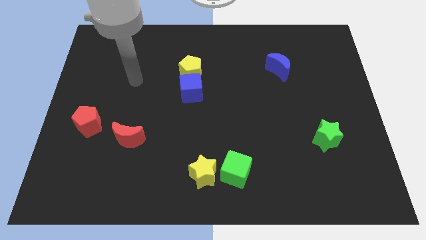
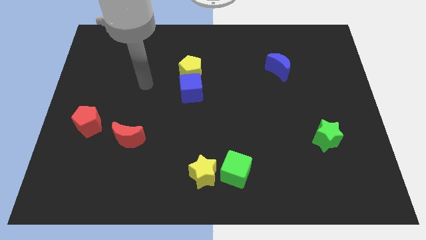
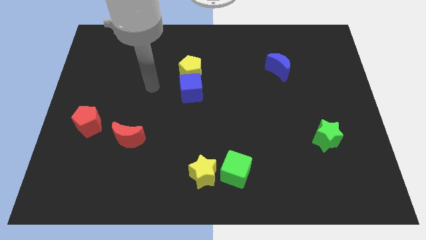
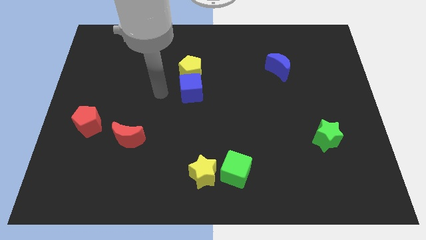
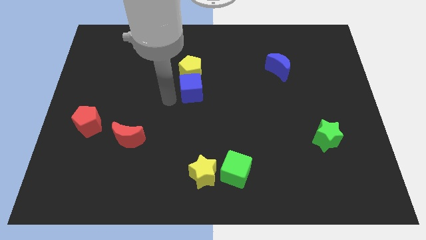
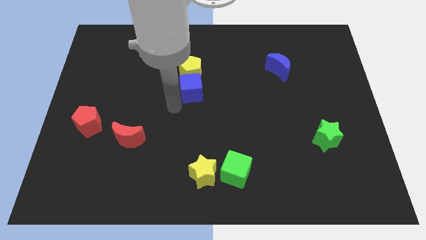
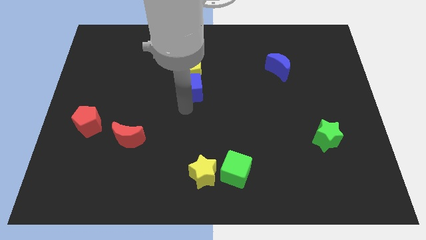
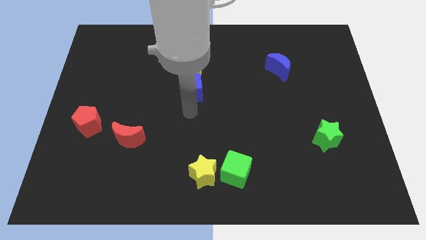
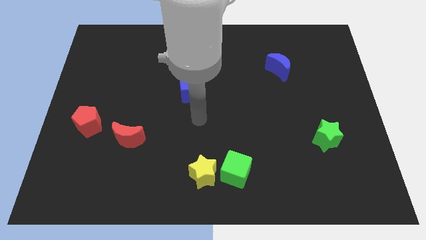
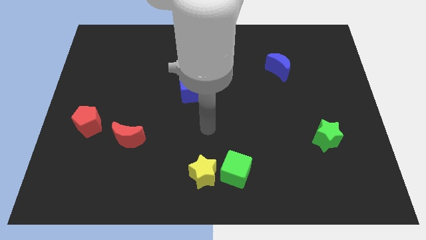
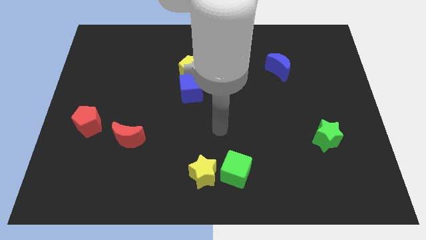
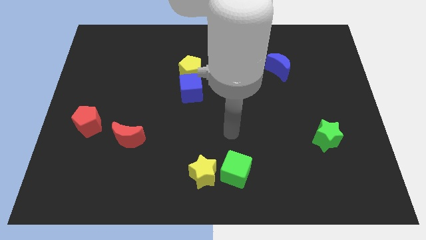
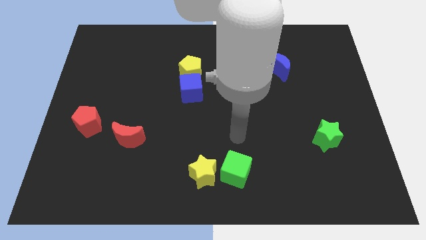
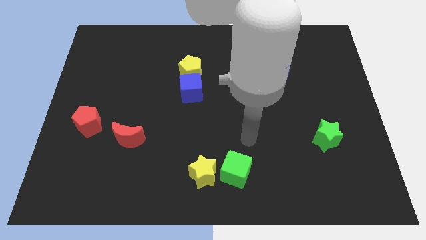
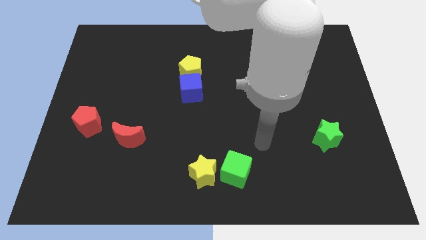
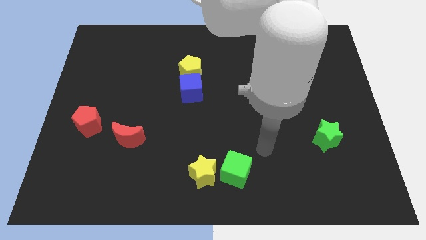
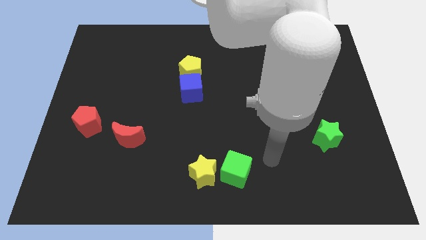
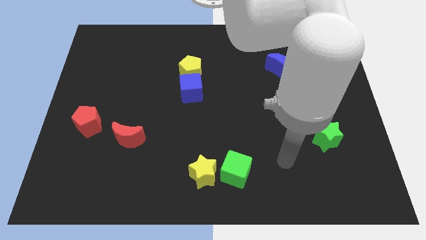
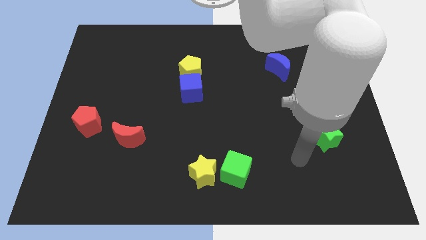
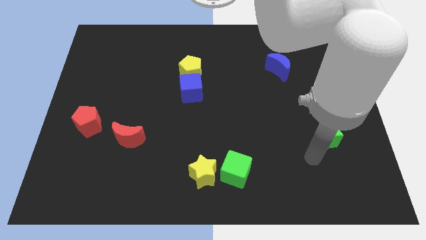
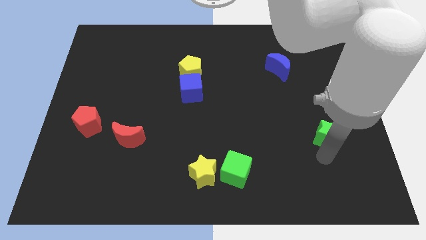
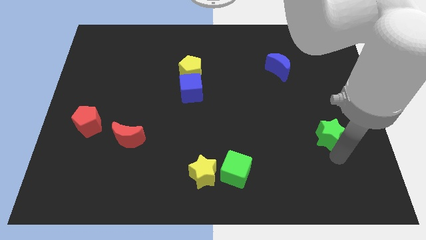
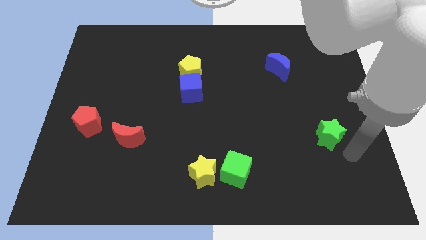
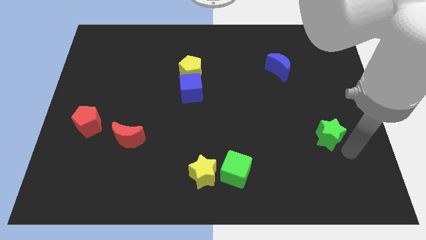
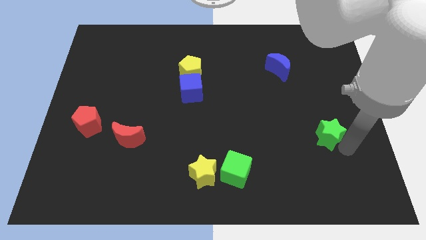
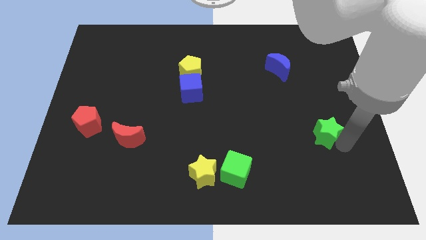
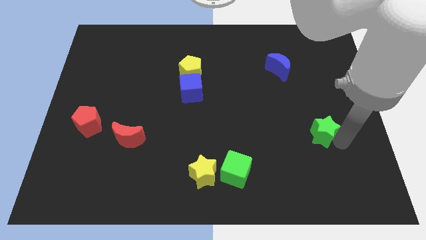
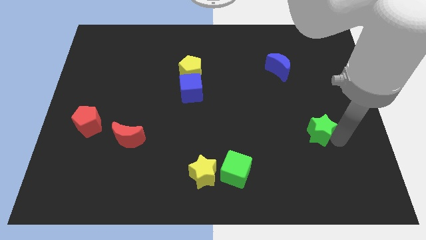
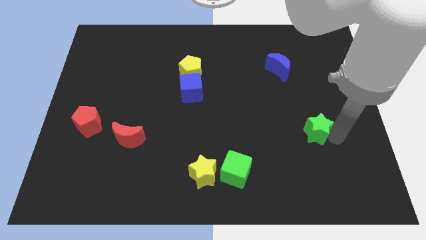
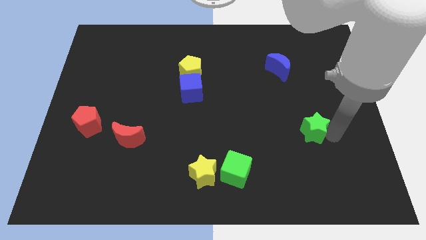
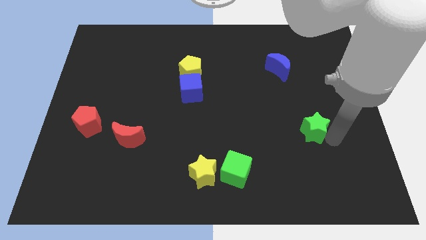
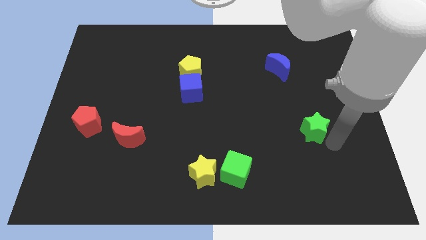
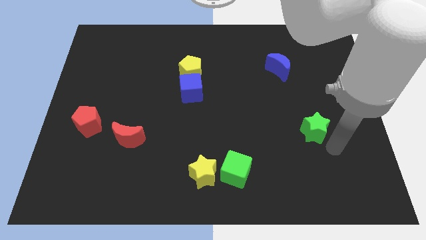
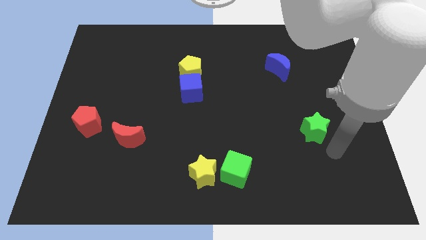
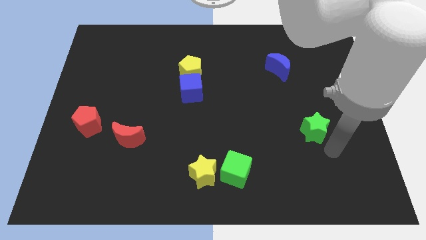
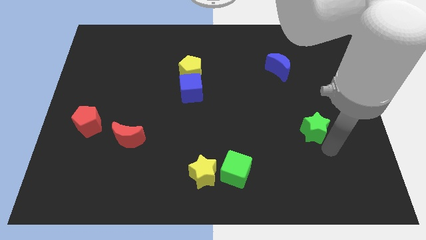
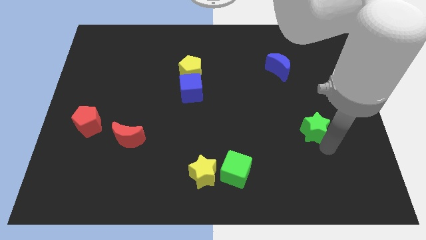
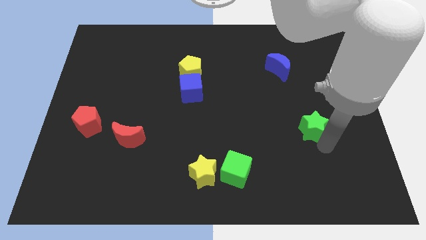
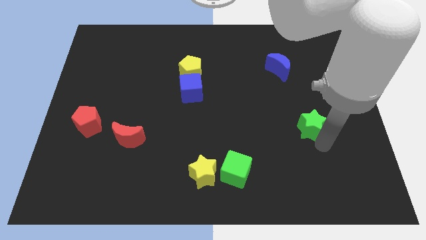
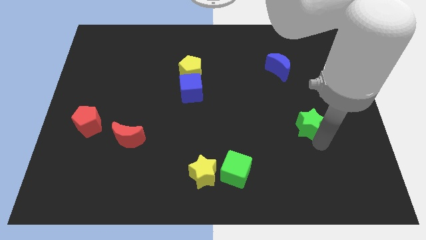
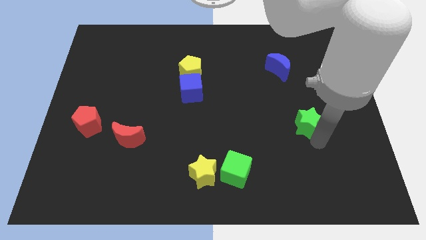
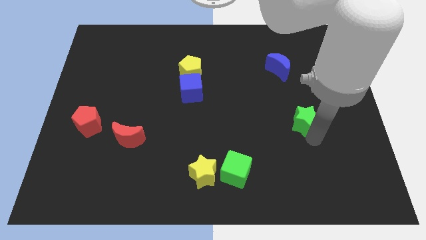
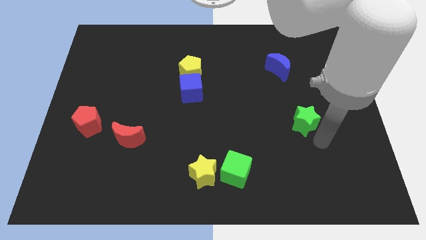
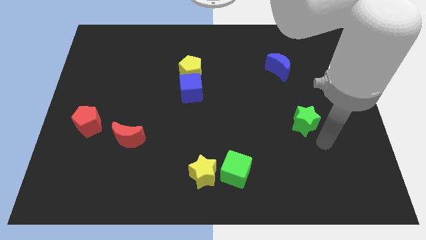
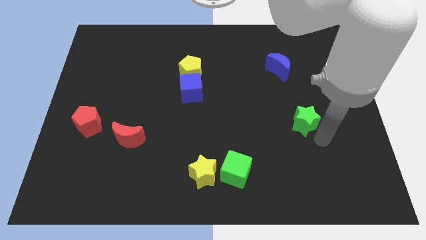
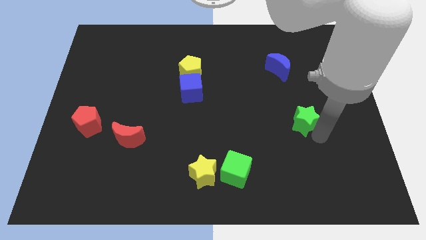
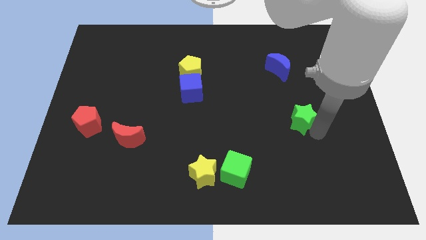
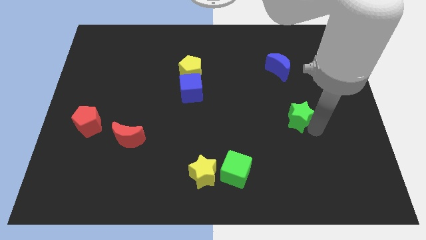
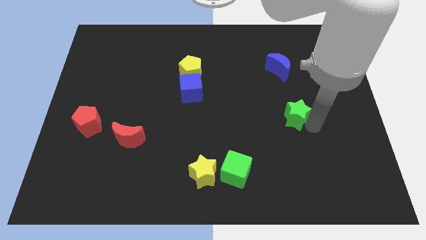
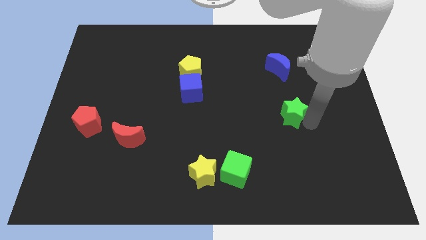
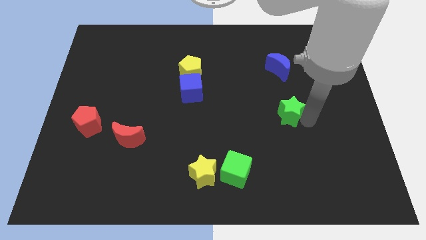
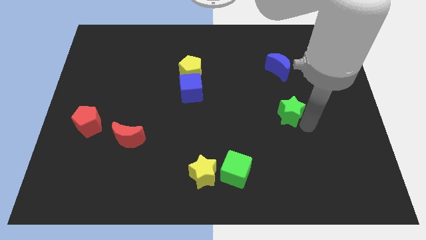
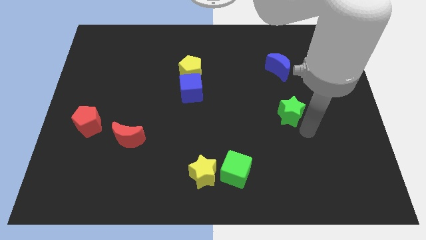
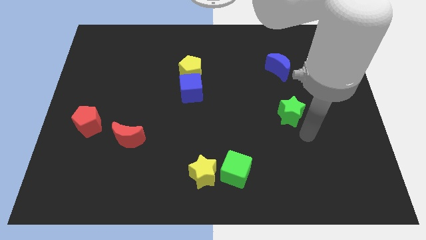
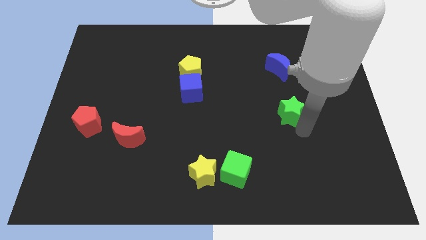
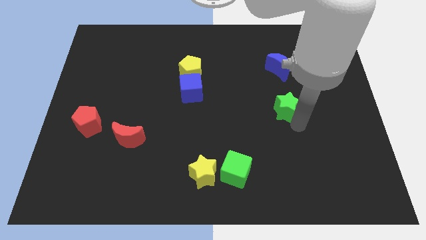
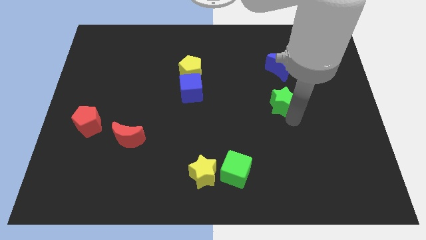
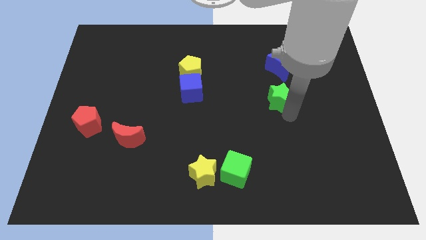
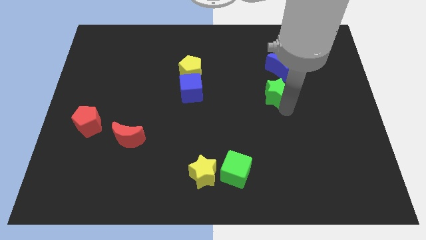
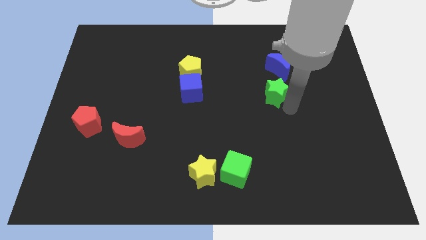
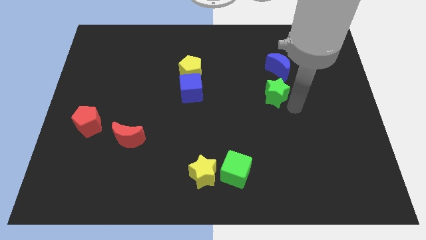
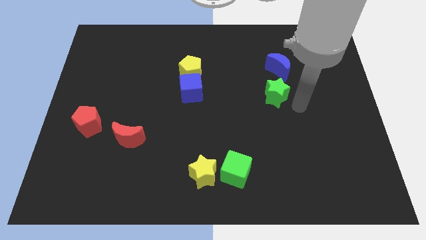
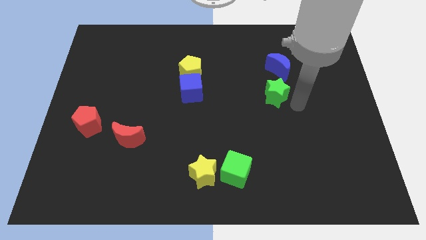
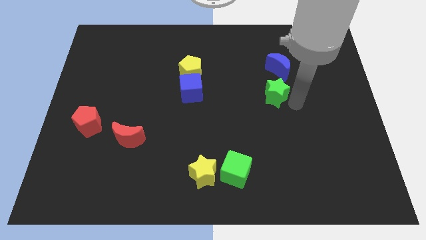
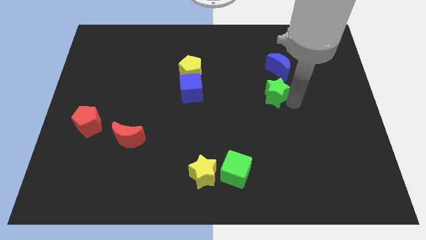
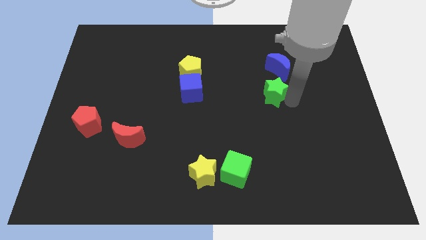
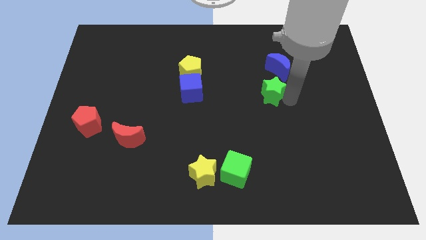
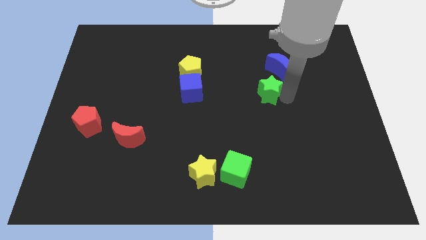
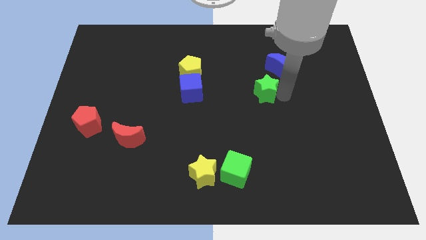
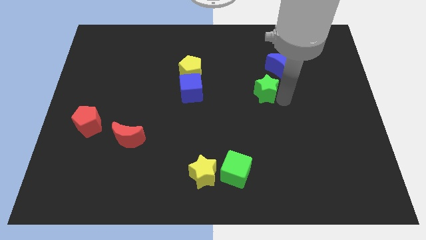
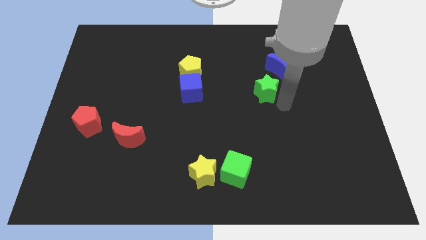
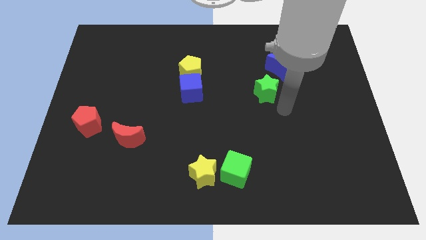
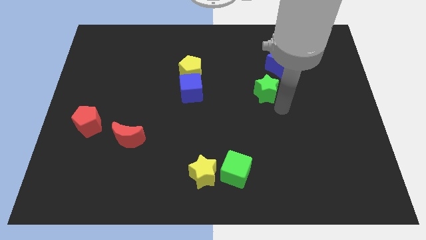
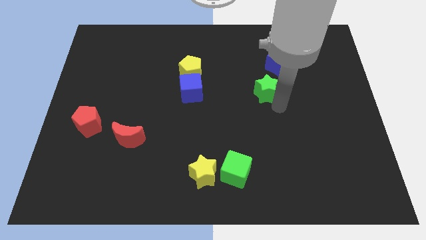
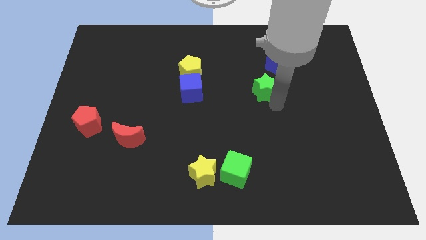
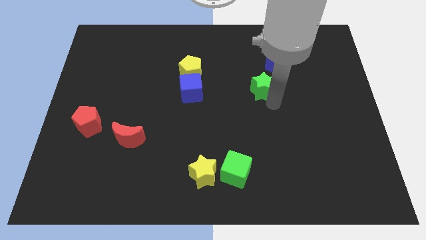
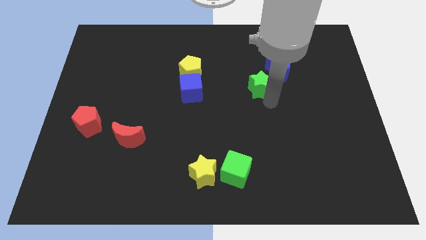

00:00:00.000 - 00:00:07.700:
move the green star up and left diagonally
